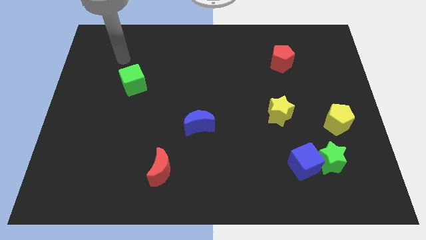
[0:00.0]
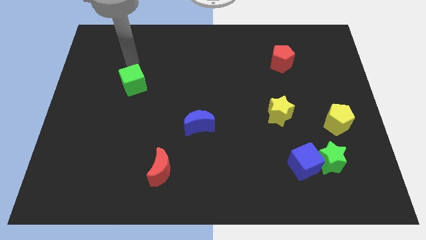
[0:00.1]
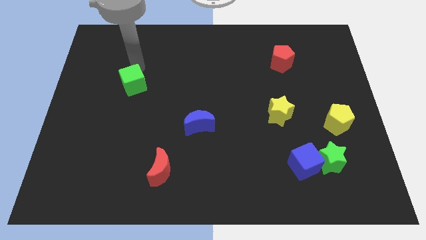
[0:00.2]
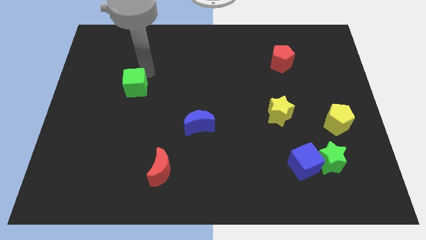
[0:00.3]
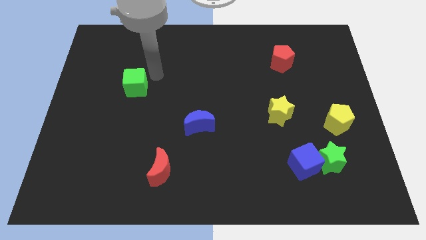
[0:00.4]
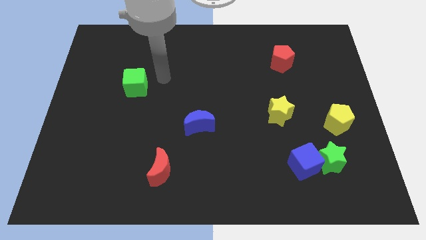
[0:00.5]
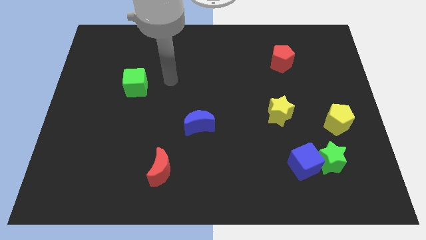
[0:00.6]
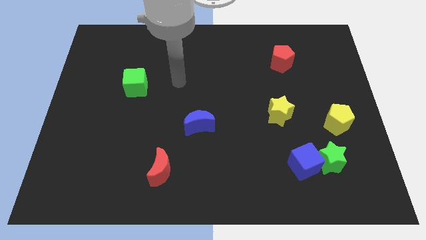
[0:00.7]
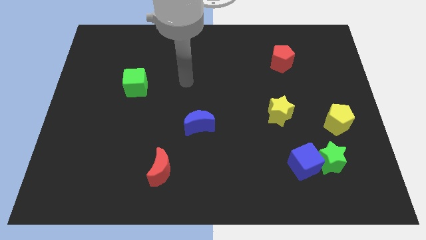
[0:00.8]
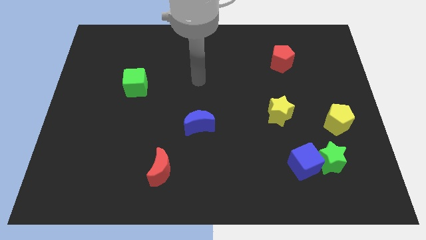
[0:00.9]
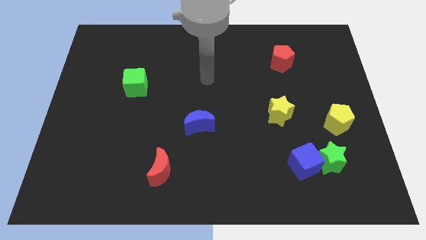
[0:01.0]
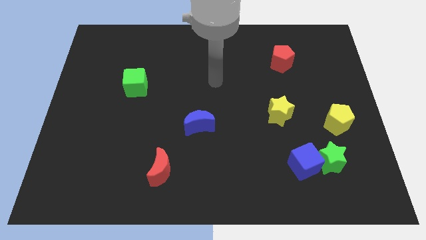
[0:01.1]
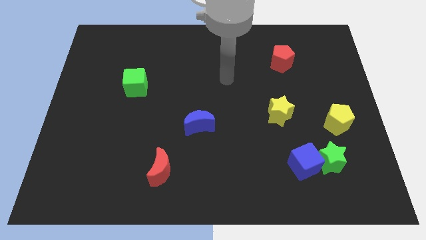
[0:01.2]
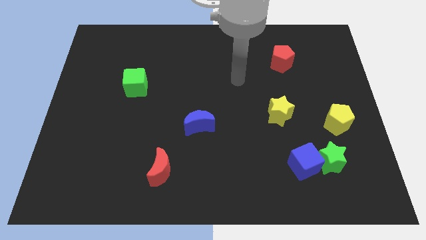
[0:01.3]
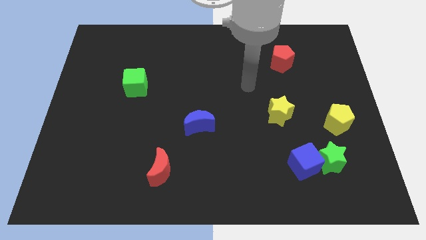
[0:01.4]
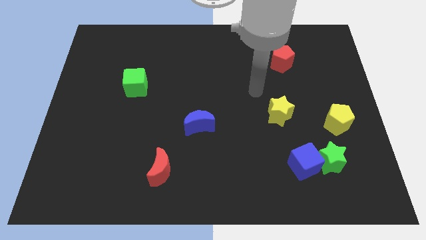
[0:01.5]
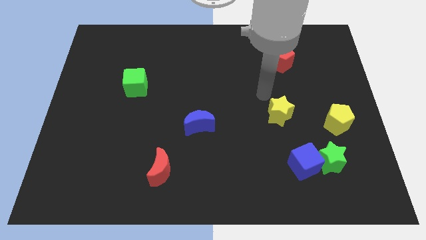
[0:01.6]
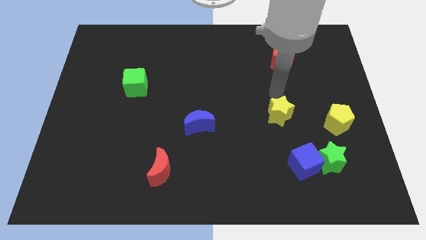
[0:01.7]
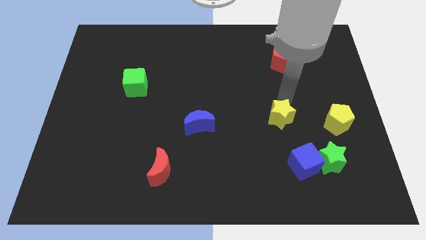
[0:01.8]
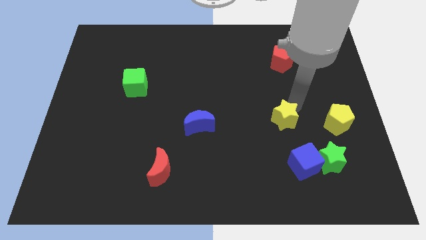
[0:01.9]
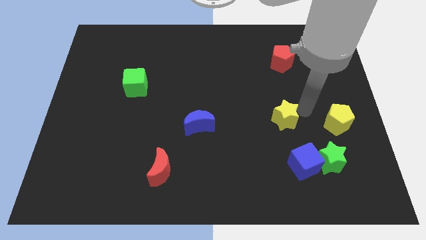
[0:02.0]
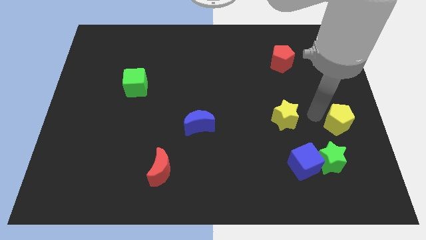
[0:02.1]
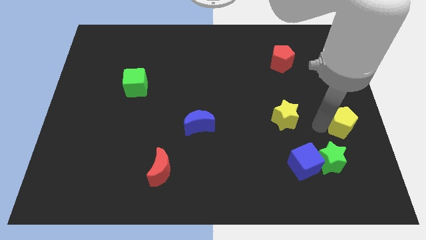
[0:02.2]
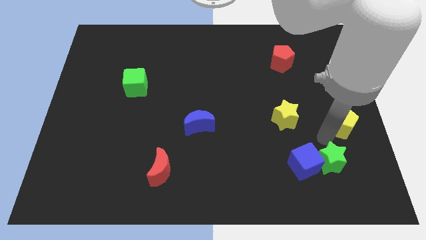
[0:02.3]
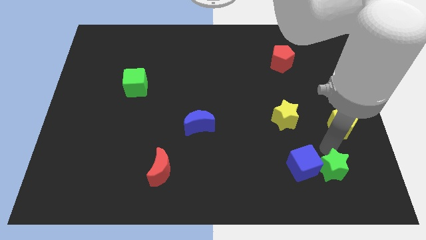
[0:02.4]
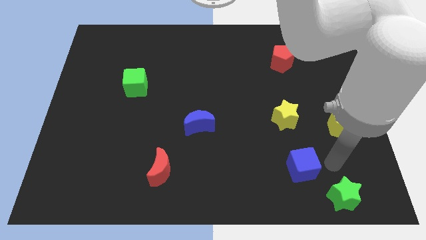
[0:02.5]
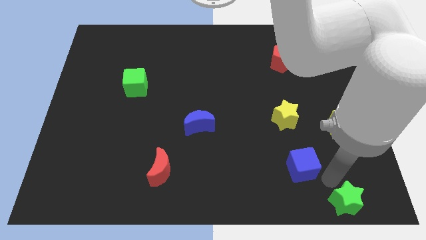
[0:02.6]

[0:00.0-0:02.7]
separate the blue cube from the green star

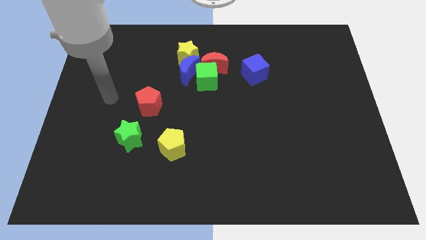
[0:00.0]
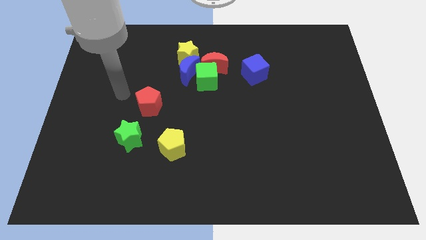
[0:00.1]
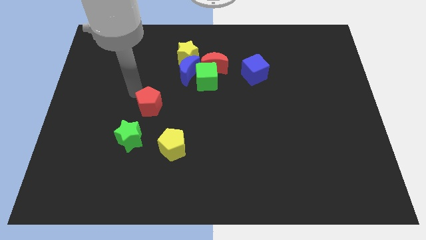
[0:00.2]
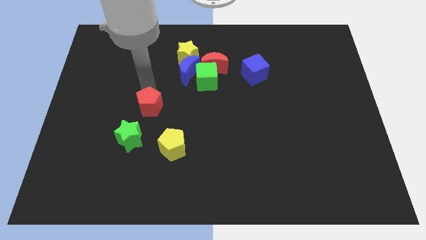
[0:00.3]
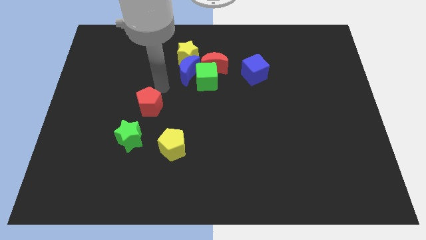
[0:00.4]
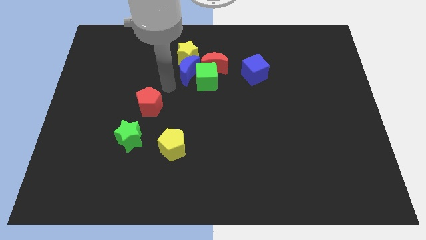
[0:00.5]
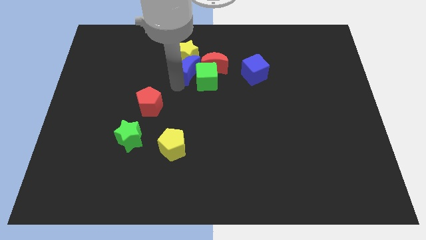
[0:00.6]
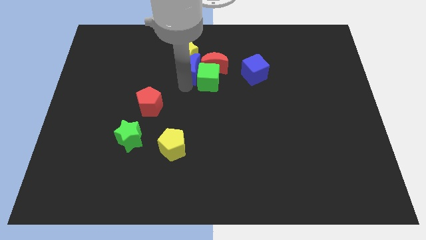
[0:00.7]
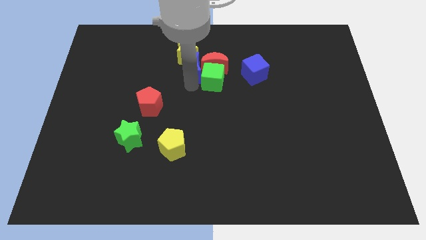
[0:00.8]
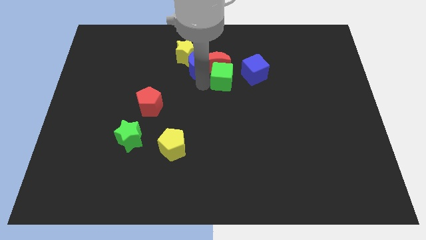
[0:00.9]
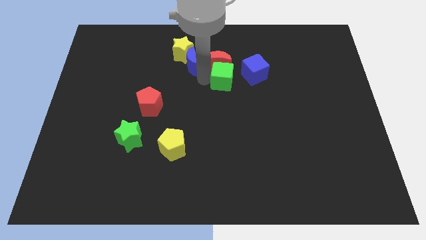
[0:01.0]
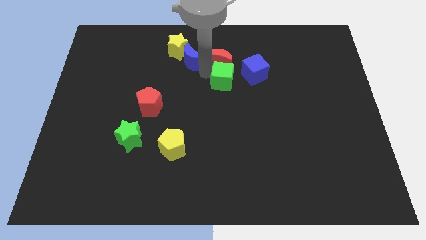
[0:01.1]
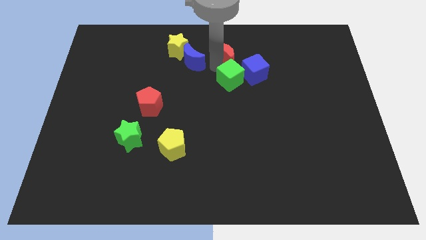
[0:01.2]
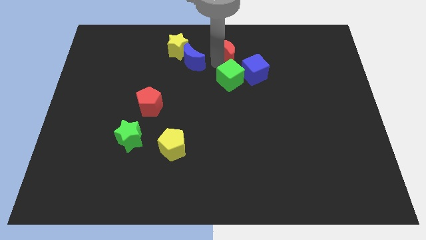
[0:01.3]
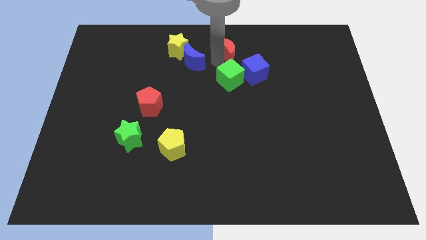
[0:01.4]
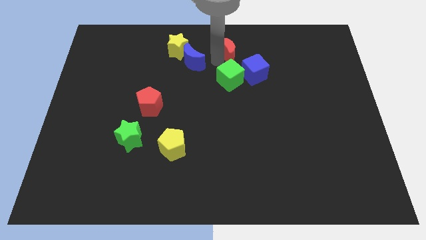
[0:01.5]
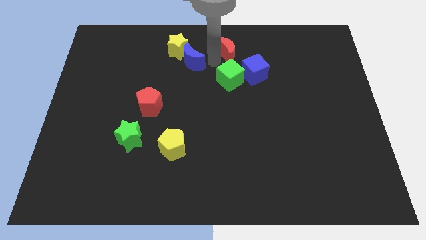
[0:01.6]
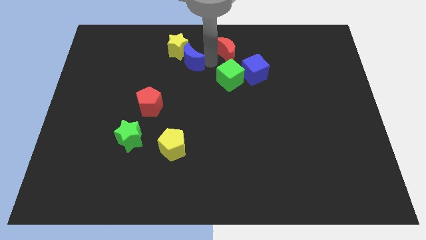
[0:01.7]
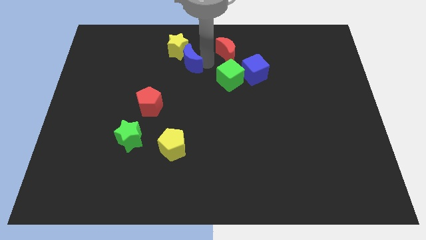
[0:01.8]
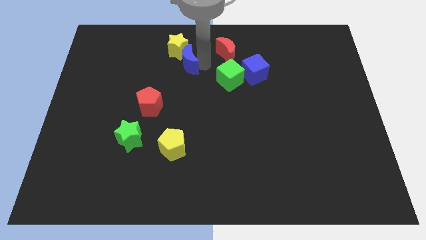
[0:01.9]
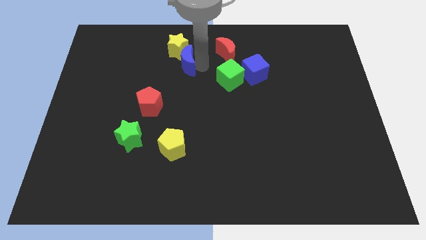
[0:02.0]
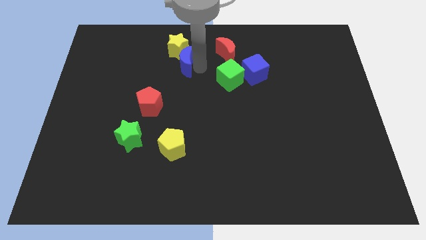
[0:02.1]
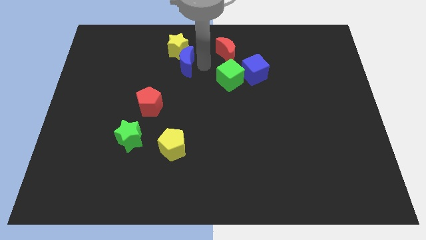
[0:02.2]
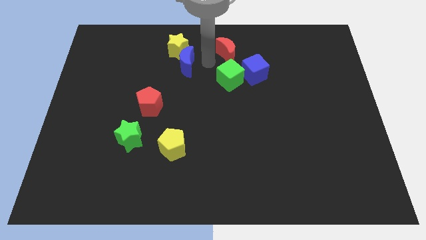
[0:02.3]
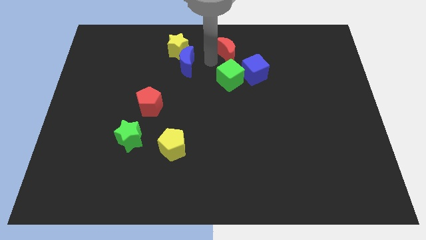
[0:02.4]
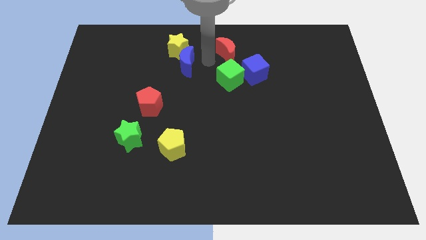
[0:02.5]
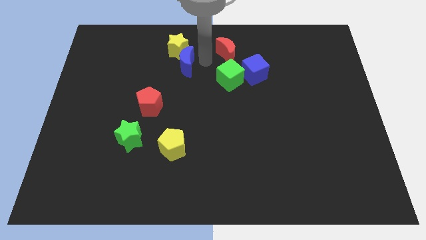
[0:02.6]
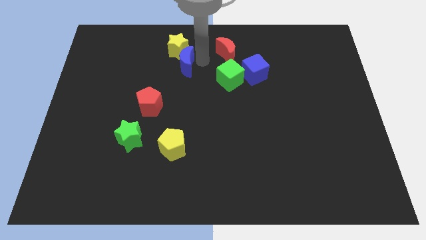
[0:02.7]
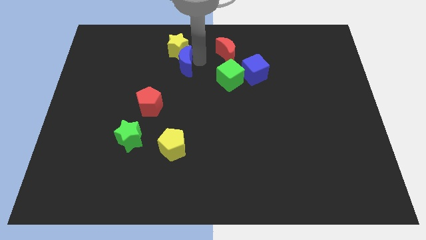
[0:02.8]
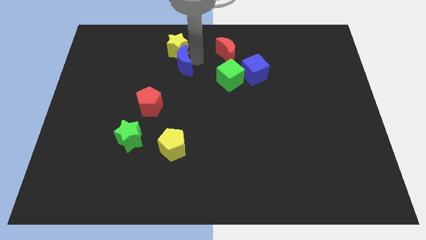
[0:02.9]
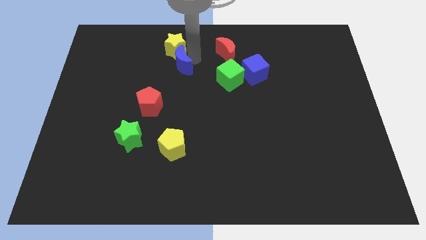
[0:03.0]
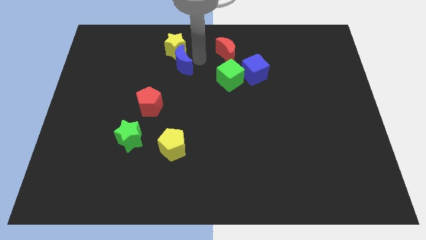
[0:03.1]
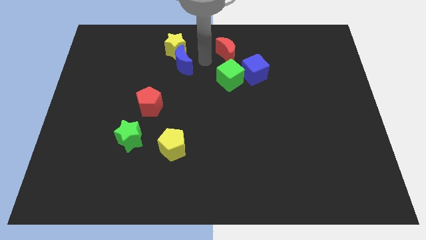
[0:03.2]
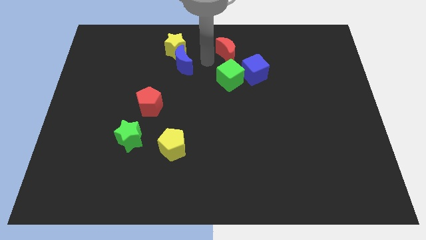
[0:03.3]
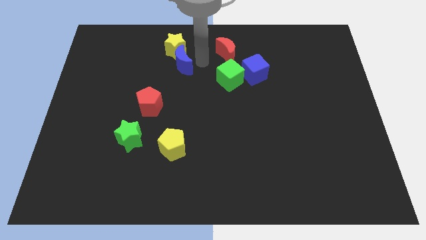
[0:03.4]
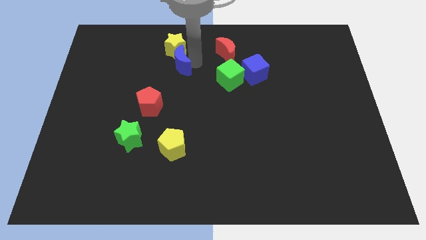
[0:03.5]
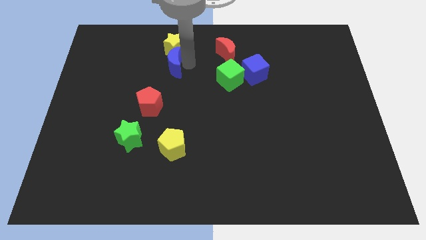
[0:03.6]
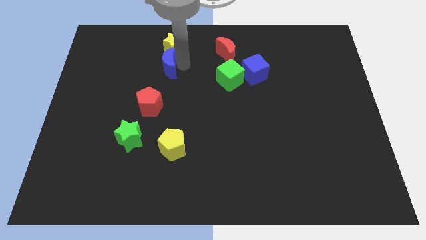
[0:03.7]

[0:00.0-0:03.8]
pull the blue moon apart from the green cube, yellow star, and red moon

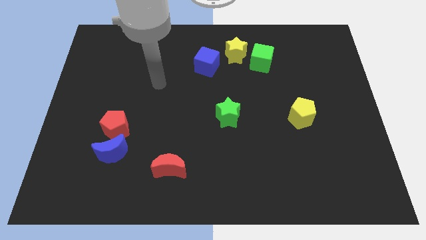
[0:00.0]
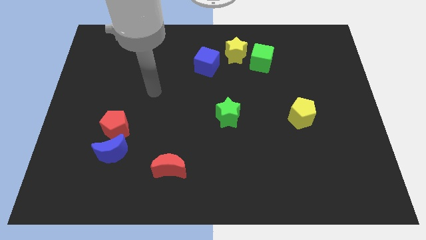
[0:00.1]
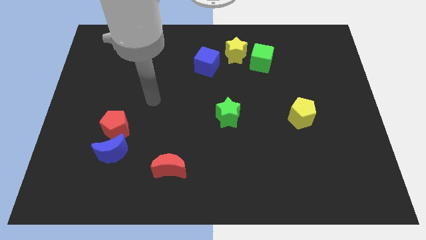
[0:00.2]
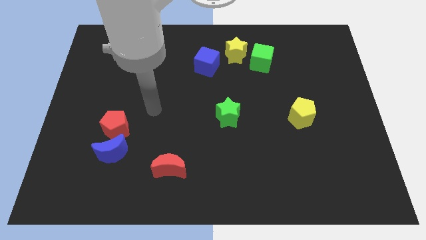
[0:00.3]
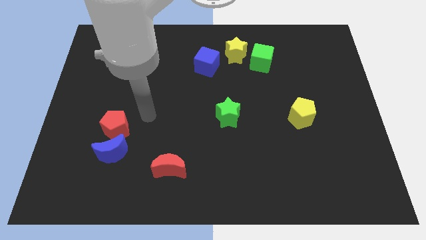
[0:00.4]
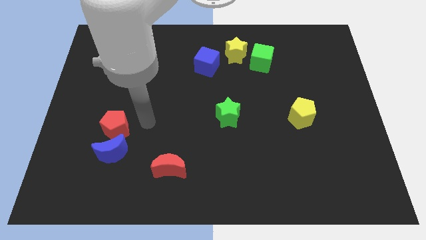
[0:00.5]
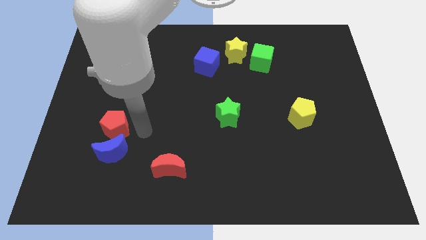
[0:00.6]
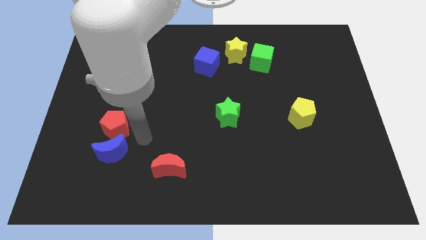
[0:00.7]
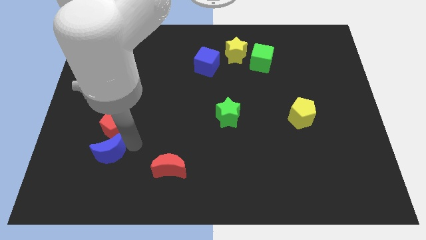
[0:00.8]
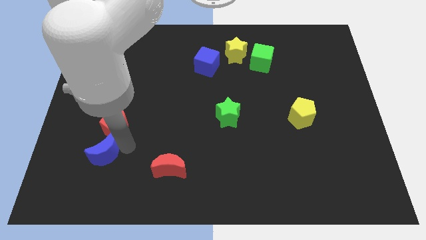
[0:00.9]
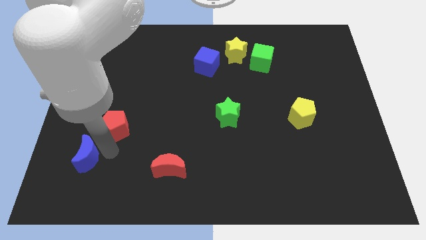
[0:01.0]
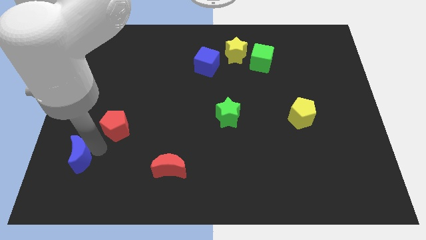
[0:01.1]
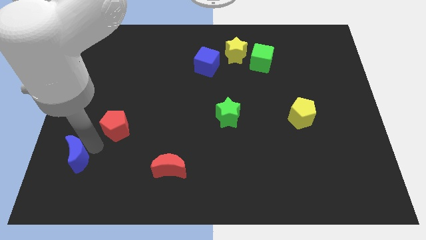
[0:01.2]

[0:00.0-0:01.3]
separate the red pentagon from the blue moon

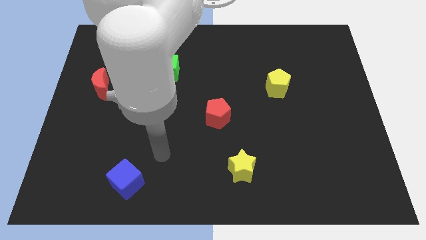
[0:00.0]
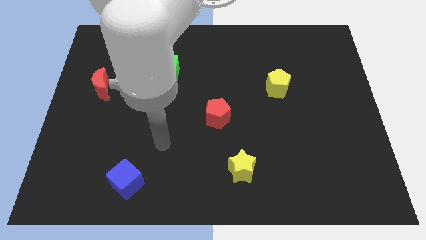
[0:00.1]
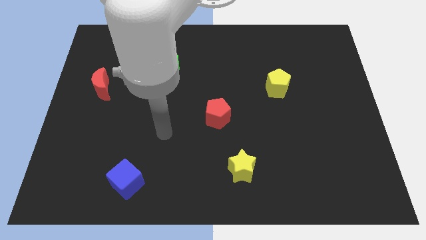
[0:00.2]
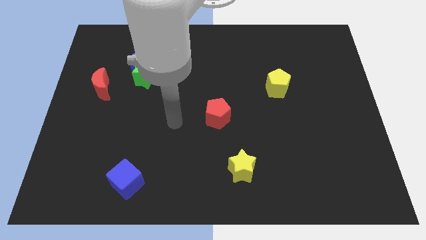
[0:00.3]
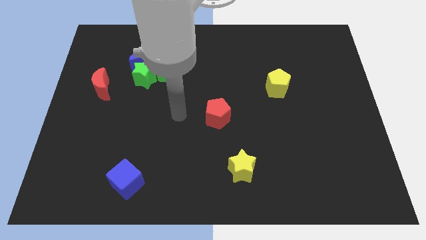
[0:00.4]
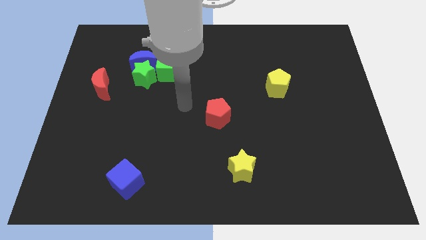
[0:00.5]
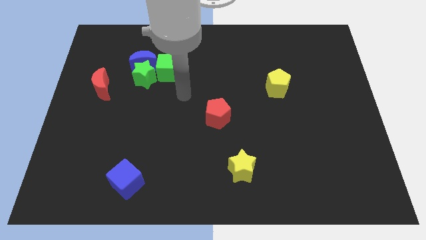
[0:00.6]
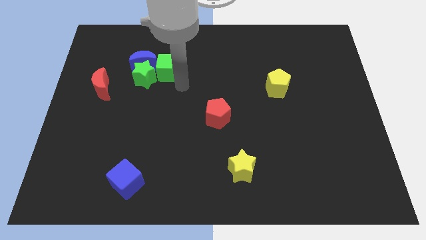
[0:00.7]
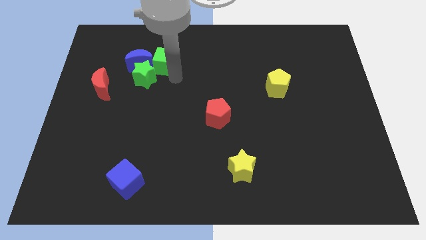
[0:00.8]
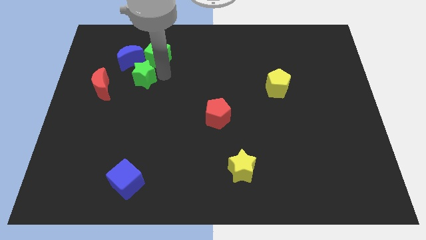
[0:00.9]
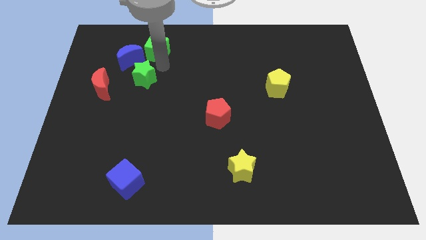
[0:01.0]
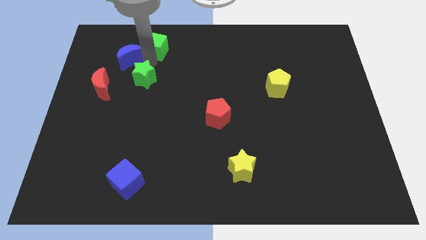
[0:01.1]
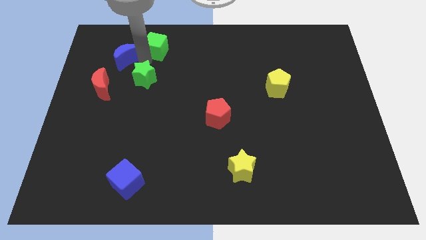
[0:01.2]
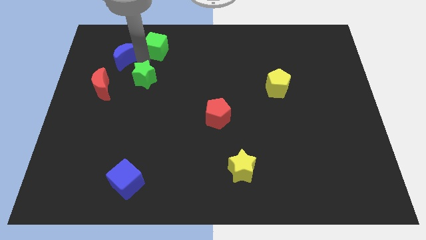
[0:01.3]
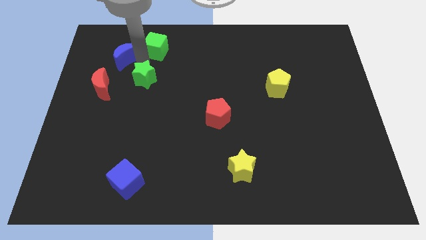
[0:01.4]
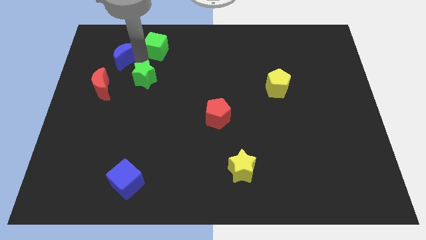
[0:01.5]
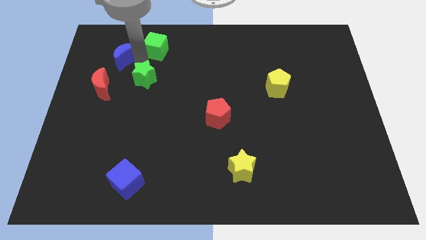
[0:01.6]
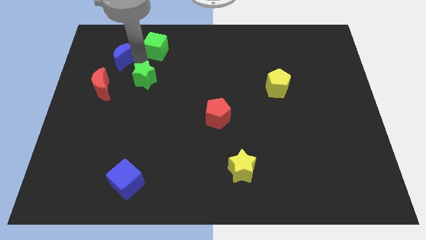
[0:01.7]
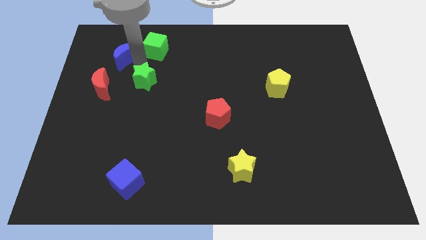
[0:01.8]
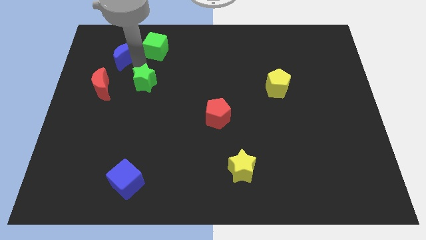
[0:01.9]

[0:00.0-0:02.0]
move the green star away from the blue moon and green cube
